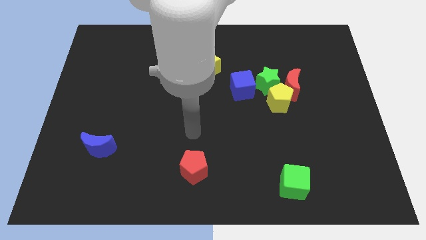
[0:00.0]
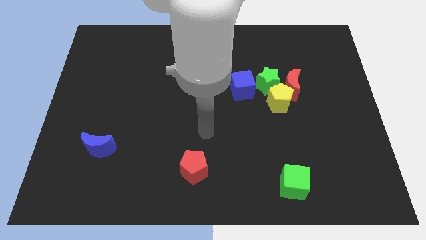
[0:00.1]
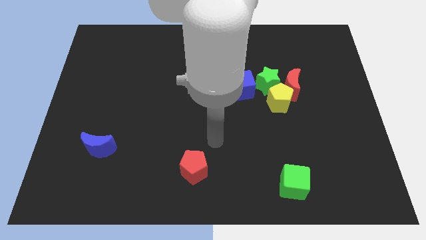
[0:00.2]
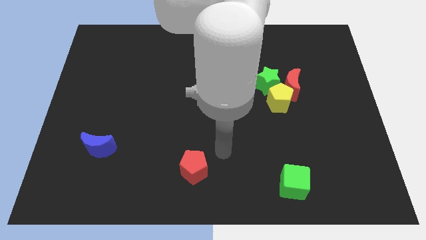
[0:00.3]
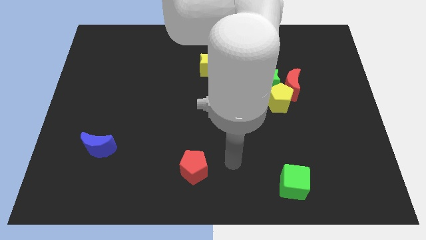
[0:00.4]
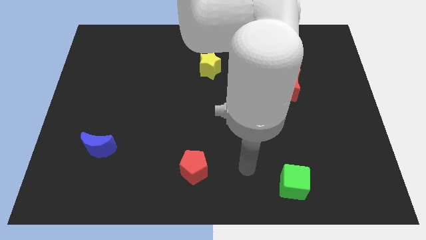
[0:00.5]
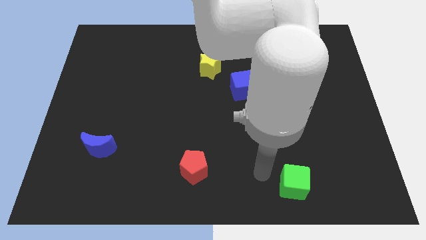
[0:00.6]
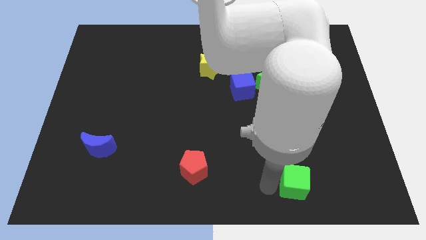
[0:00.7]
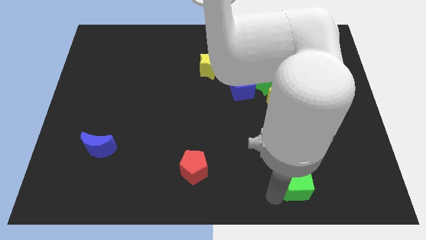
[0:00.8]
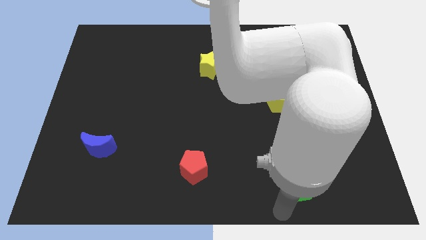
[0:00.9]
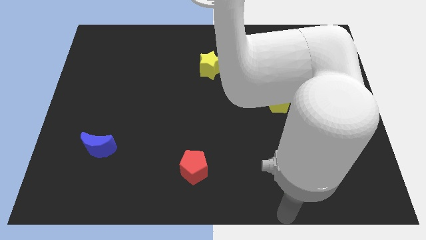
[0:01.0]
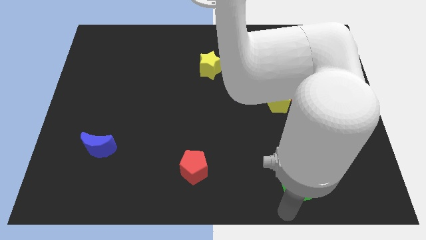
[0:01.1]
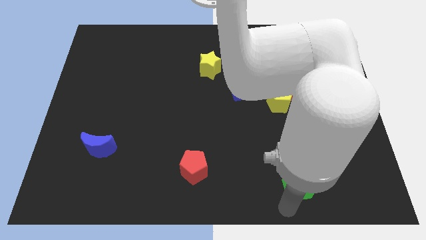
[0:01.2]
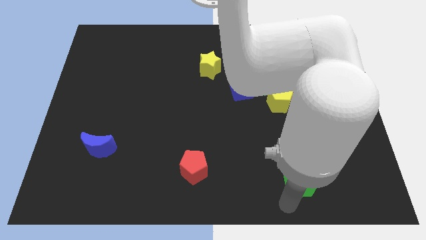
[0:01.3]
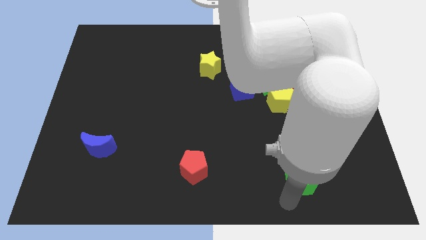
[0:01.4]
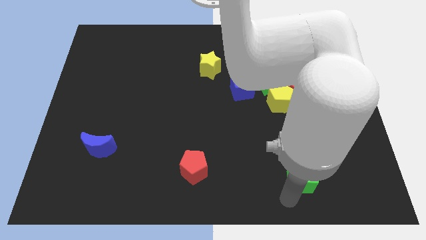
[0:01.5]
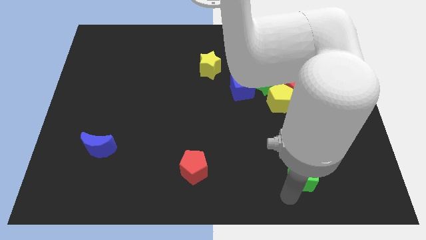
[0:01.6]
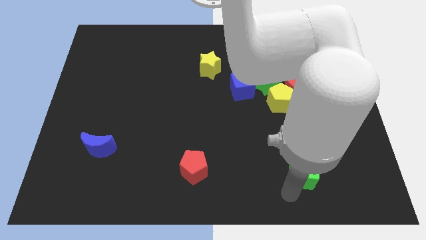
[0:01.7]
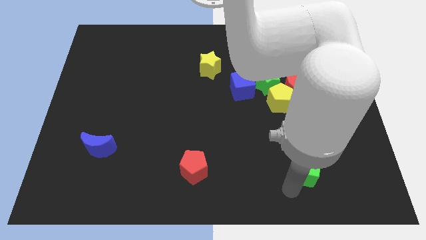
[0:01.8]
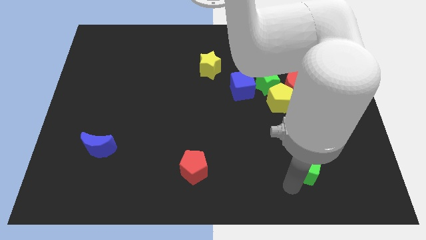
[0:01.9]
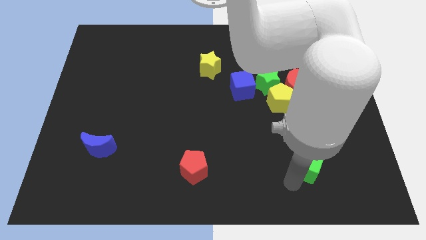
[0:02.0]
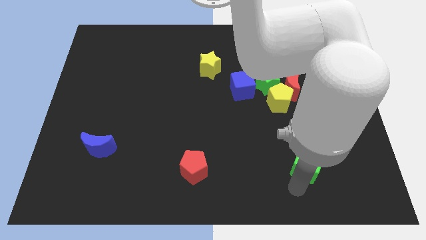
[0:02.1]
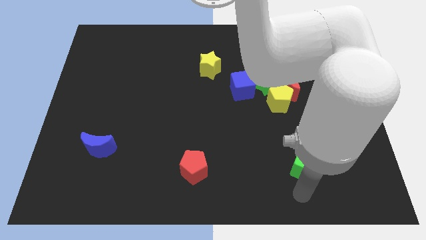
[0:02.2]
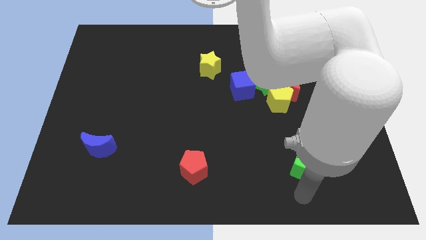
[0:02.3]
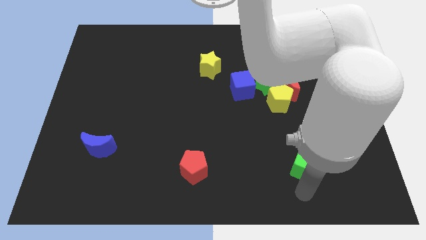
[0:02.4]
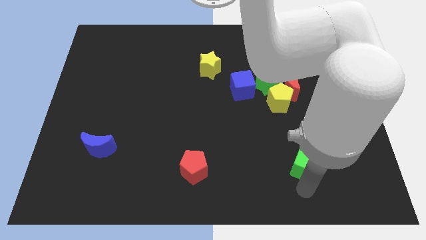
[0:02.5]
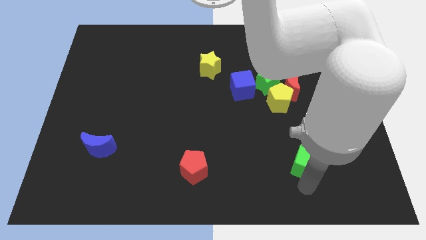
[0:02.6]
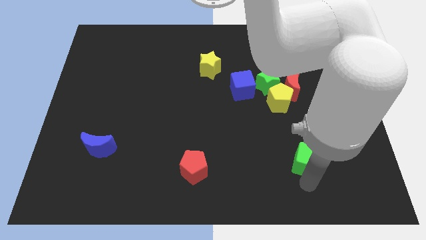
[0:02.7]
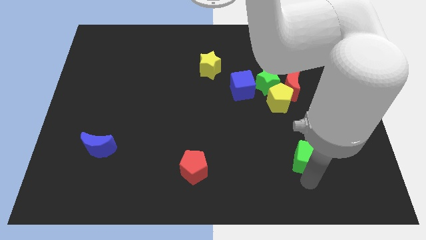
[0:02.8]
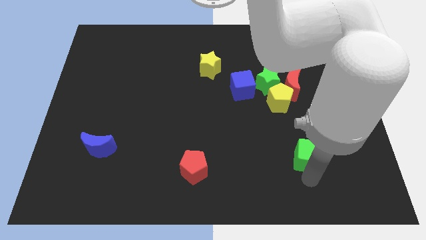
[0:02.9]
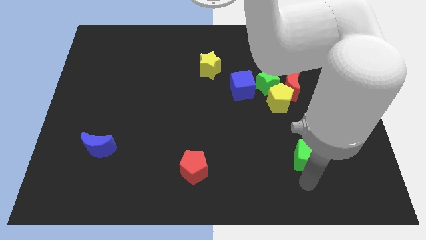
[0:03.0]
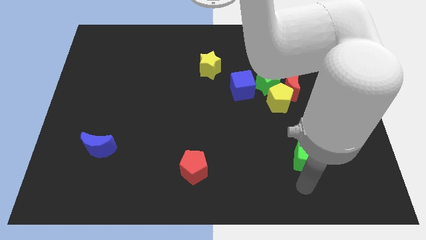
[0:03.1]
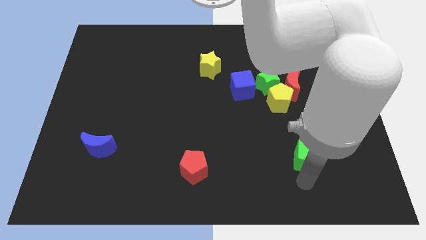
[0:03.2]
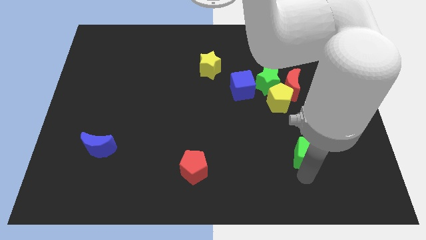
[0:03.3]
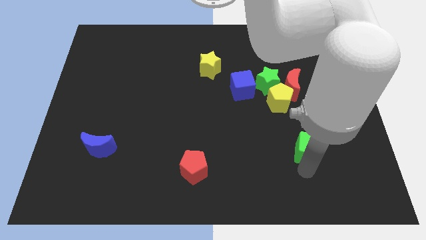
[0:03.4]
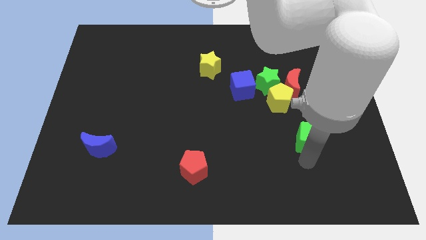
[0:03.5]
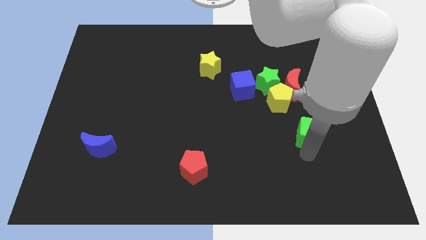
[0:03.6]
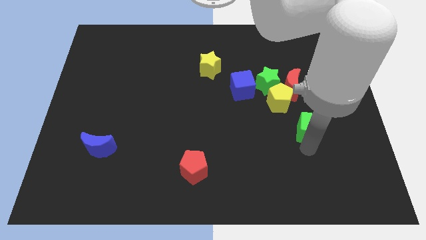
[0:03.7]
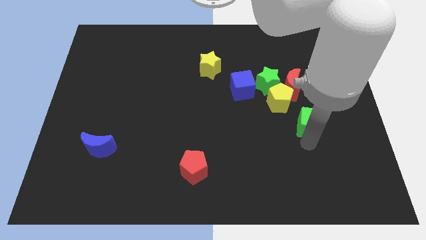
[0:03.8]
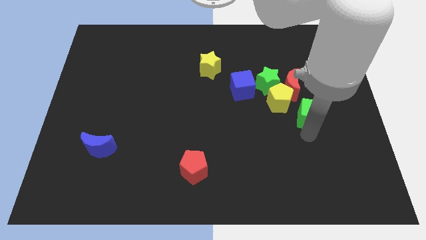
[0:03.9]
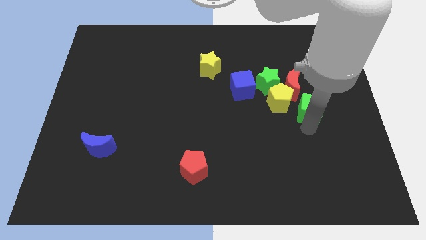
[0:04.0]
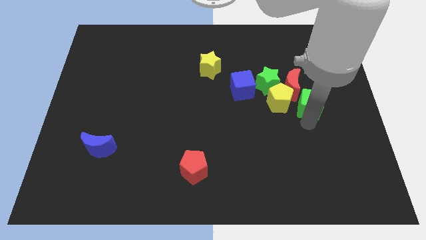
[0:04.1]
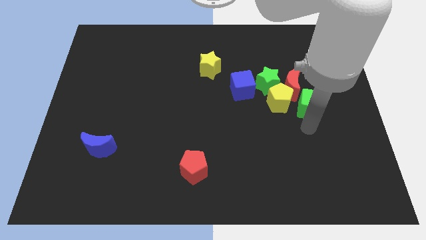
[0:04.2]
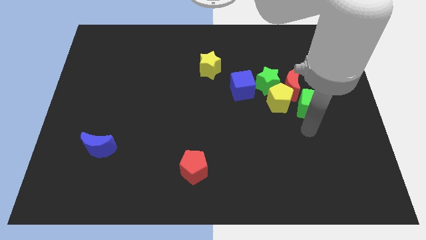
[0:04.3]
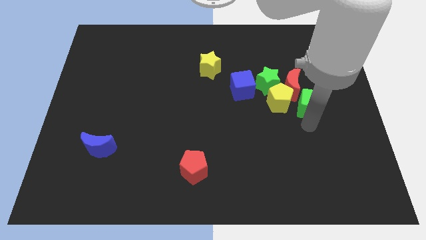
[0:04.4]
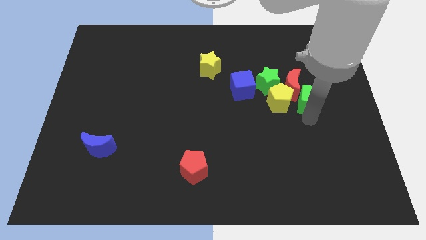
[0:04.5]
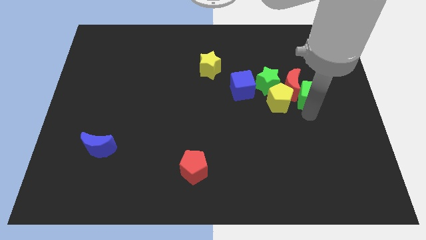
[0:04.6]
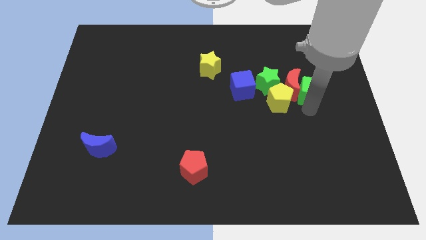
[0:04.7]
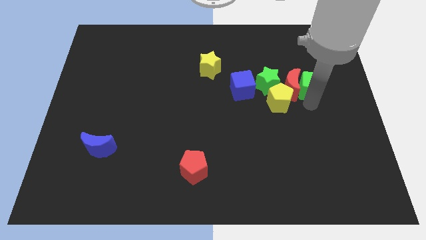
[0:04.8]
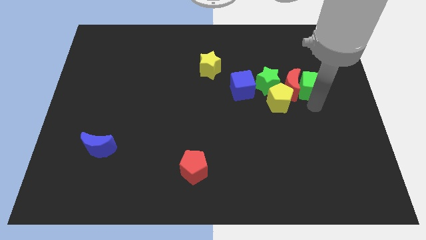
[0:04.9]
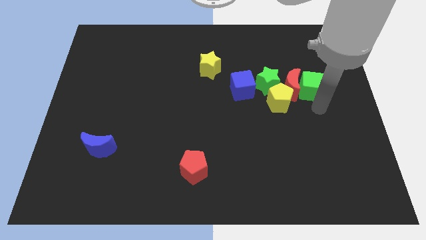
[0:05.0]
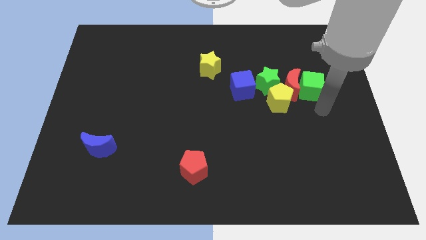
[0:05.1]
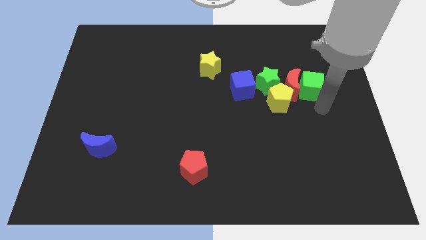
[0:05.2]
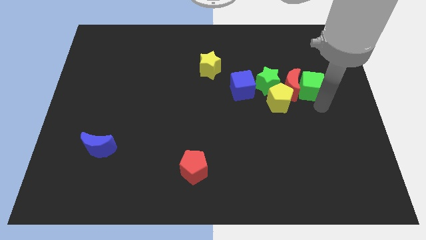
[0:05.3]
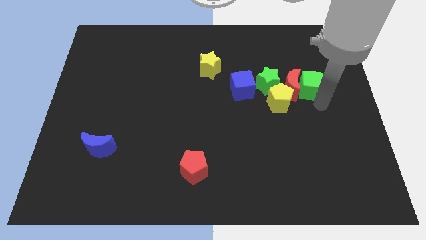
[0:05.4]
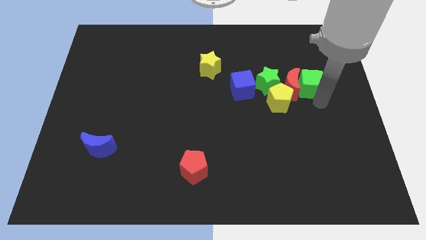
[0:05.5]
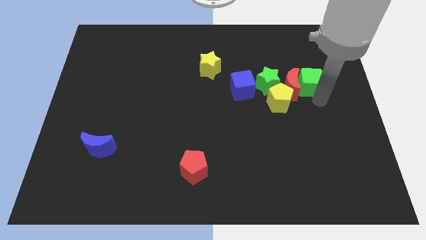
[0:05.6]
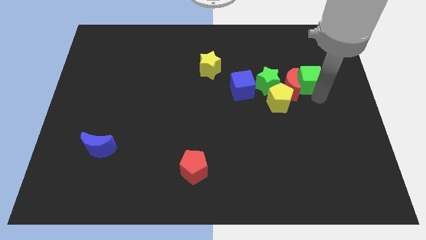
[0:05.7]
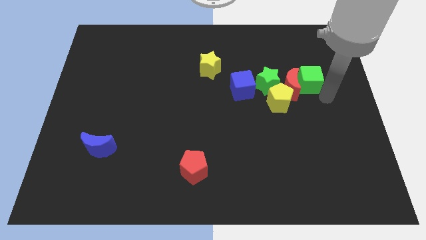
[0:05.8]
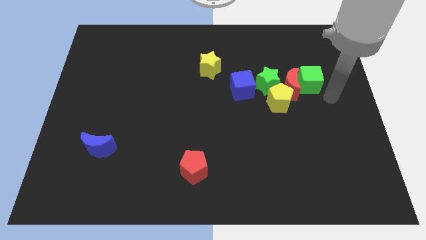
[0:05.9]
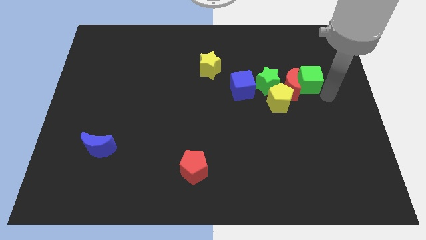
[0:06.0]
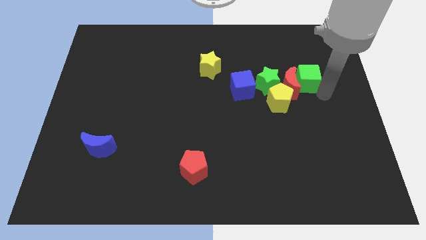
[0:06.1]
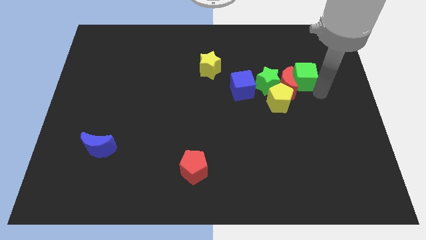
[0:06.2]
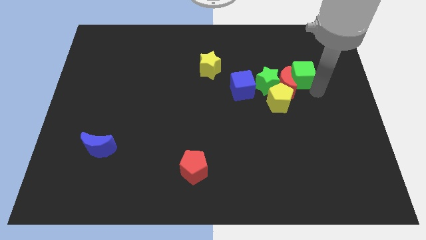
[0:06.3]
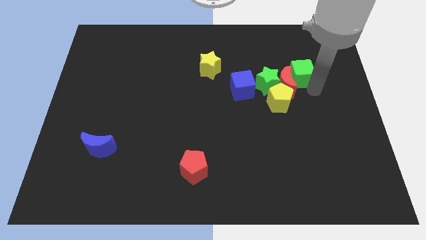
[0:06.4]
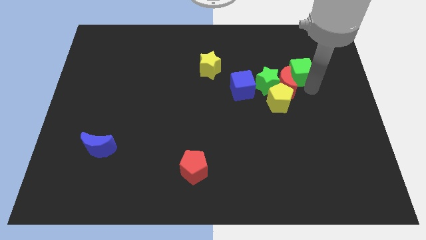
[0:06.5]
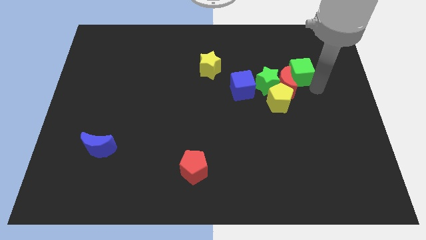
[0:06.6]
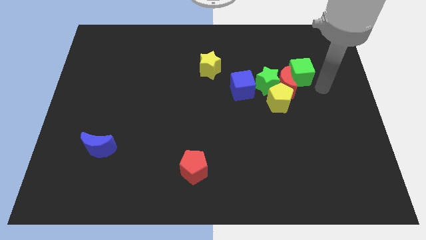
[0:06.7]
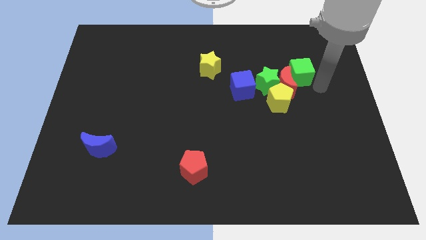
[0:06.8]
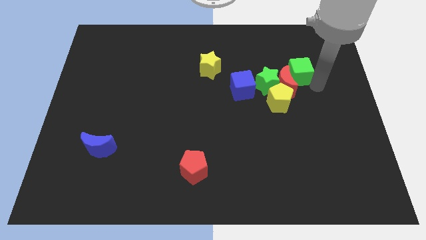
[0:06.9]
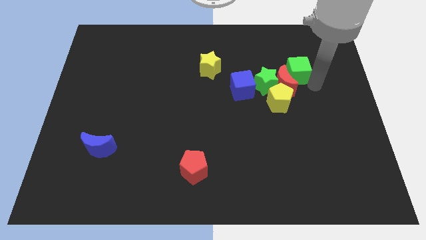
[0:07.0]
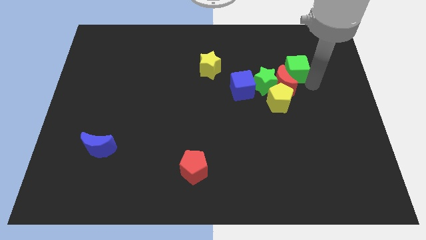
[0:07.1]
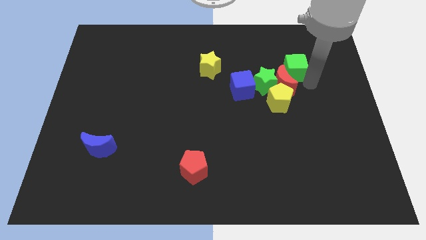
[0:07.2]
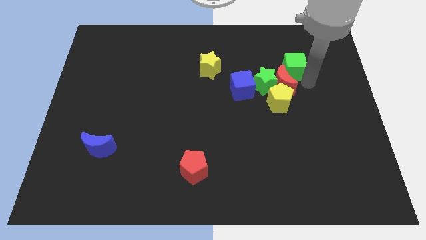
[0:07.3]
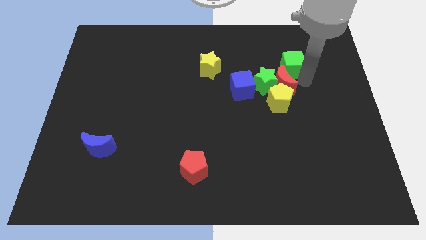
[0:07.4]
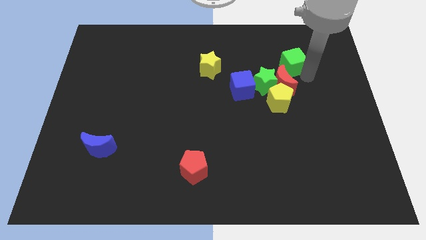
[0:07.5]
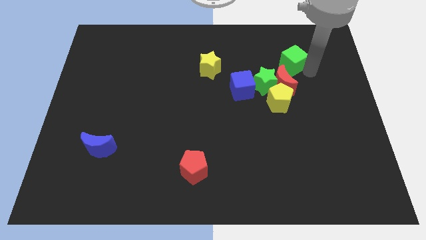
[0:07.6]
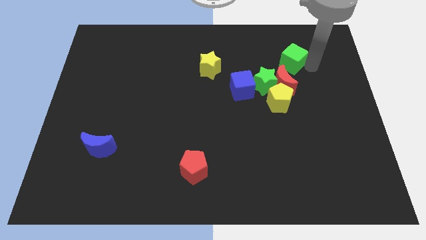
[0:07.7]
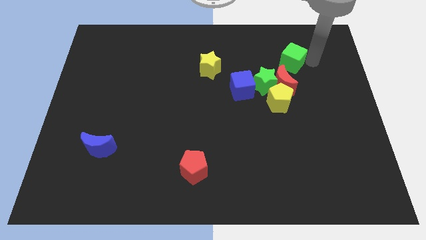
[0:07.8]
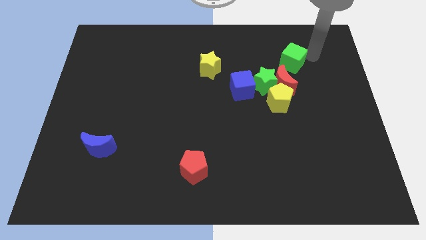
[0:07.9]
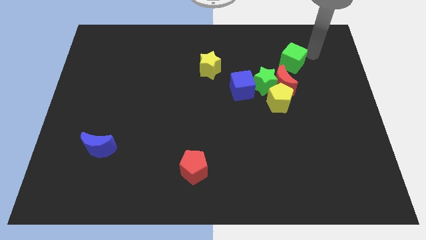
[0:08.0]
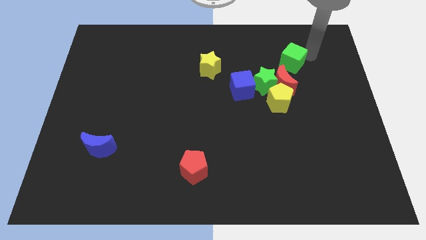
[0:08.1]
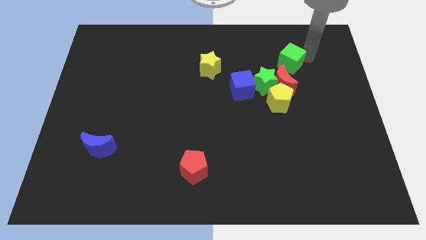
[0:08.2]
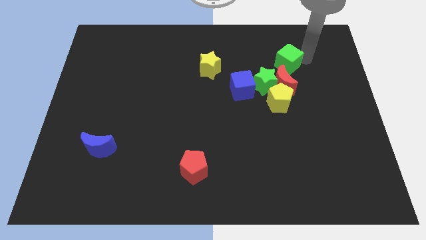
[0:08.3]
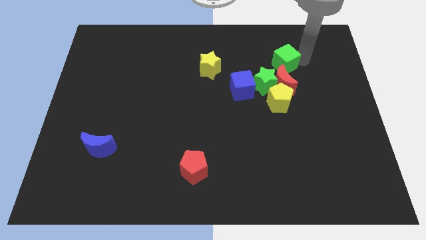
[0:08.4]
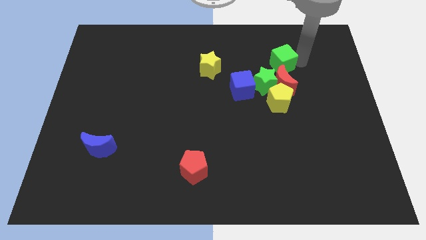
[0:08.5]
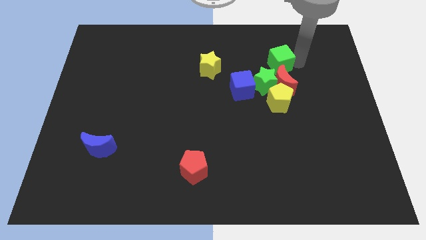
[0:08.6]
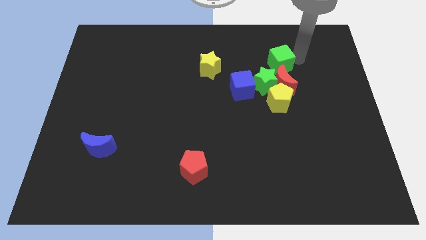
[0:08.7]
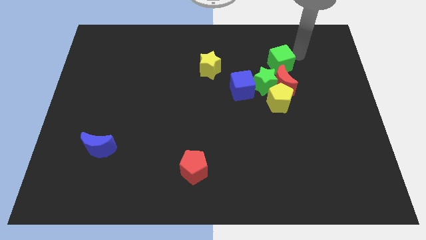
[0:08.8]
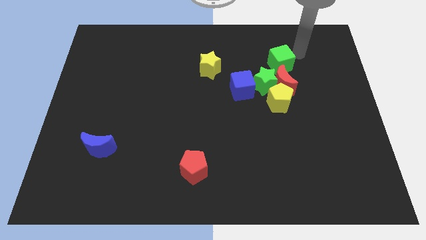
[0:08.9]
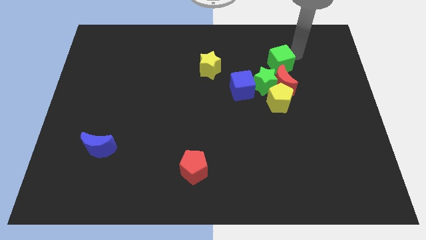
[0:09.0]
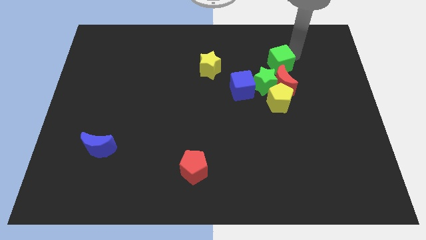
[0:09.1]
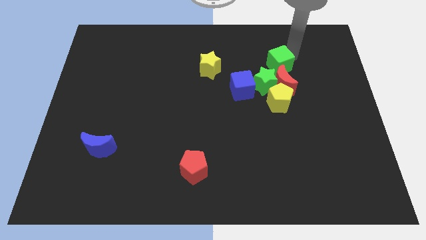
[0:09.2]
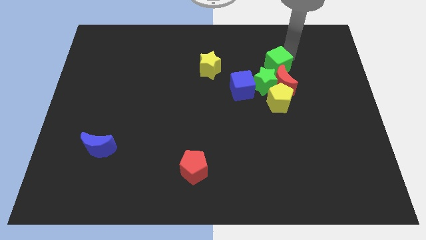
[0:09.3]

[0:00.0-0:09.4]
slide the green cube to the top right of the blue cube
